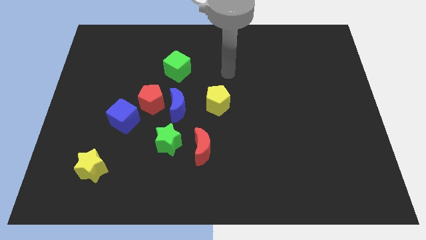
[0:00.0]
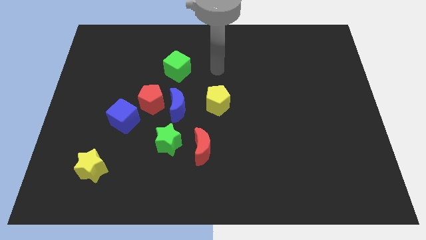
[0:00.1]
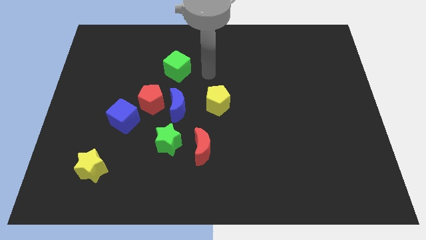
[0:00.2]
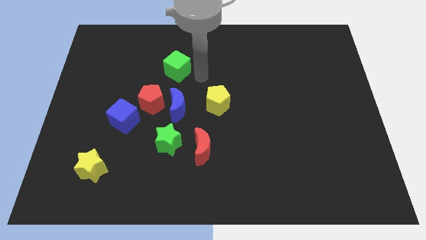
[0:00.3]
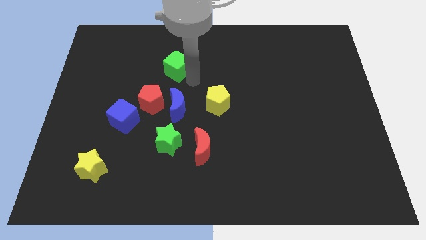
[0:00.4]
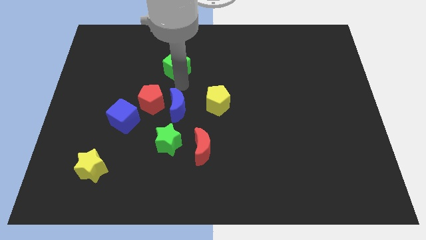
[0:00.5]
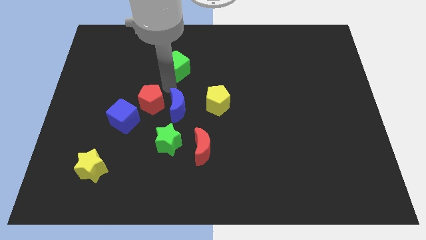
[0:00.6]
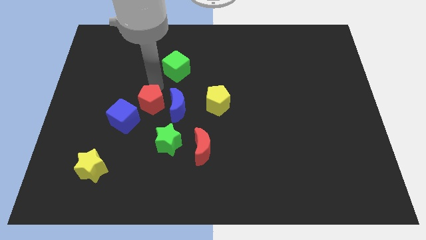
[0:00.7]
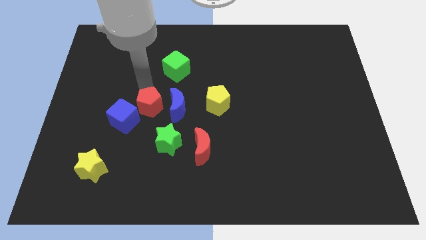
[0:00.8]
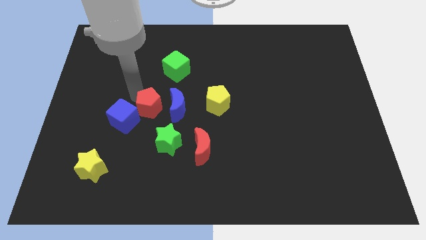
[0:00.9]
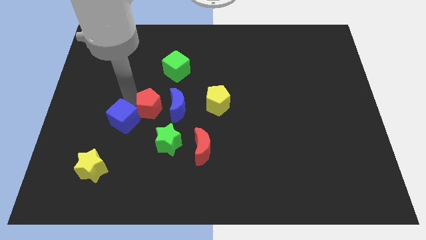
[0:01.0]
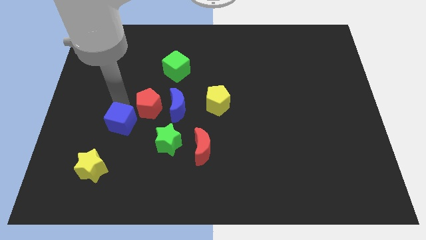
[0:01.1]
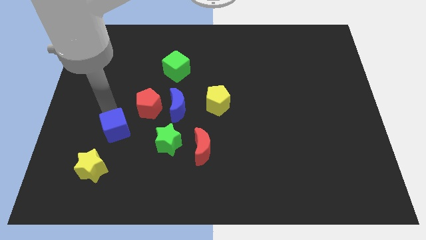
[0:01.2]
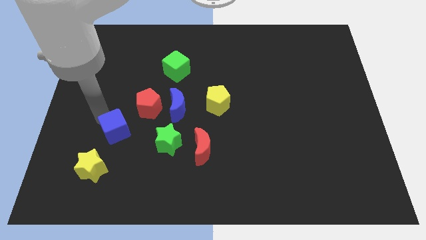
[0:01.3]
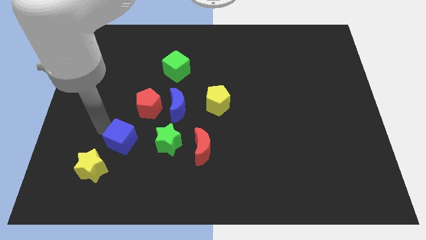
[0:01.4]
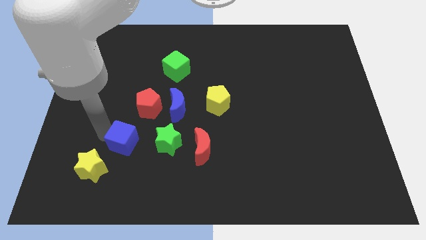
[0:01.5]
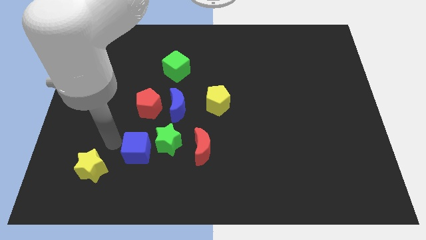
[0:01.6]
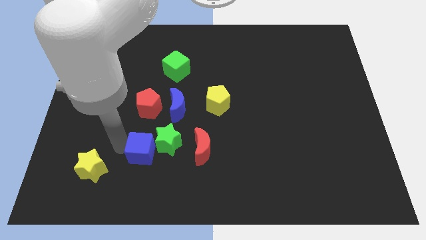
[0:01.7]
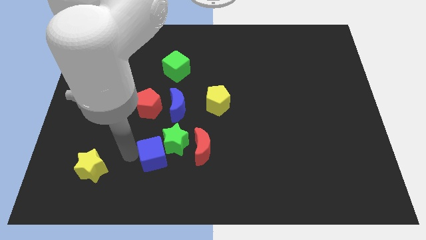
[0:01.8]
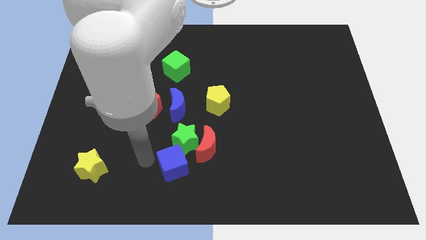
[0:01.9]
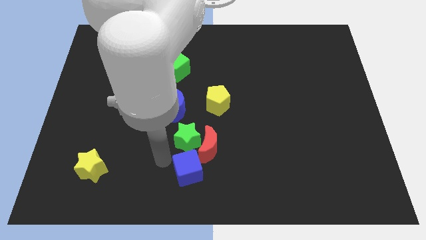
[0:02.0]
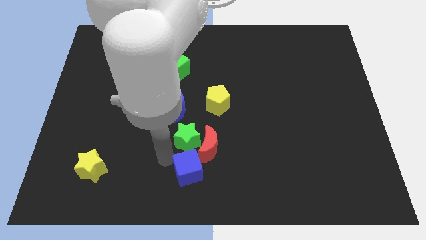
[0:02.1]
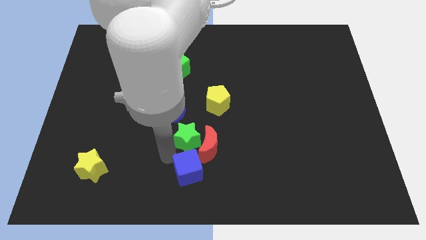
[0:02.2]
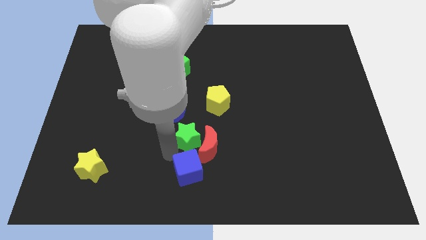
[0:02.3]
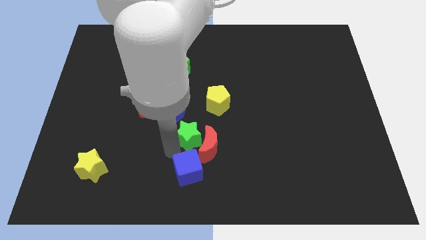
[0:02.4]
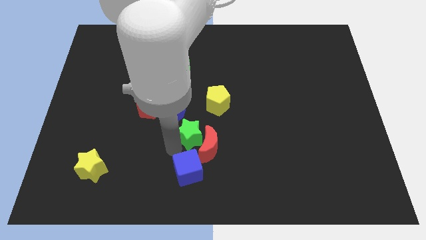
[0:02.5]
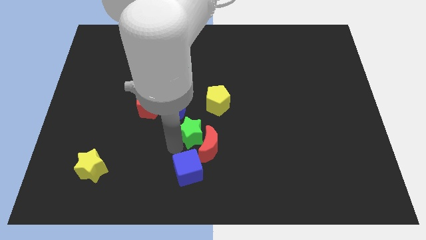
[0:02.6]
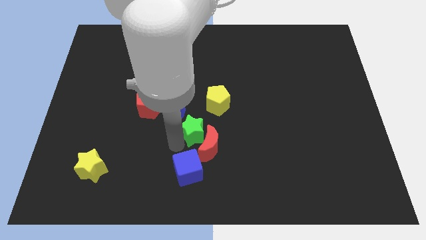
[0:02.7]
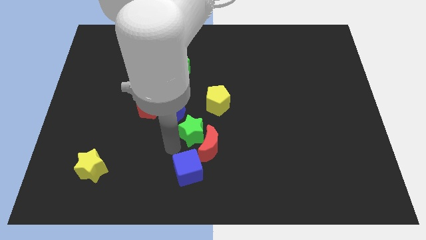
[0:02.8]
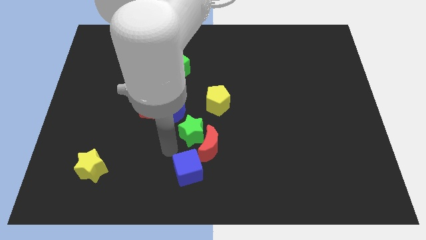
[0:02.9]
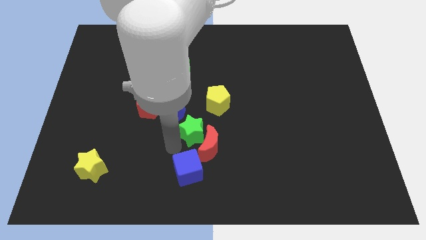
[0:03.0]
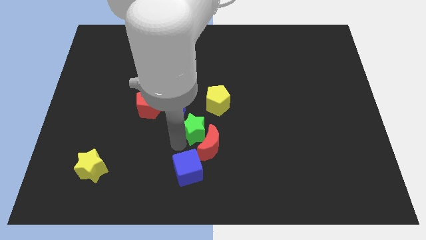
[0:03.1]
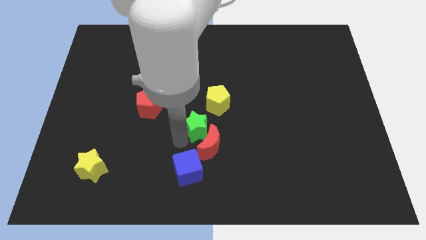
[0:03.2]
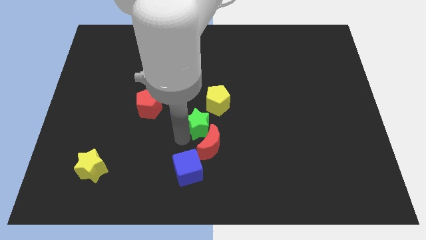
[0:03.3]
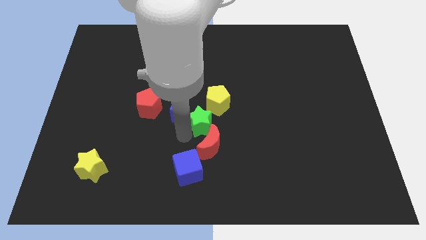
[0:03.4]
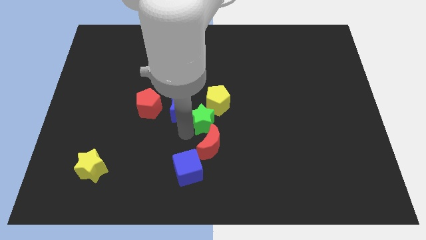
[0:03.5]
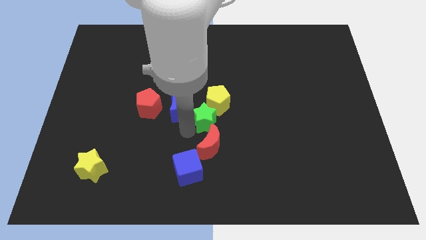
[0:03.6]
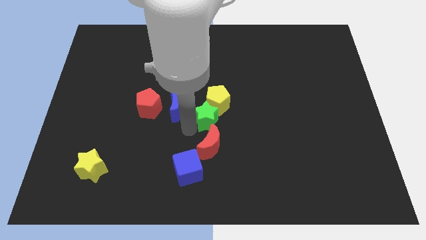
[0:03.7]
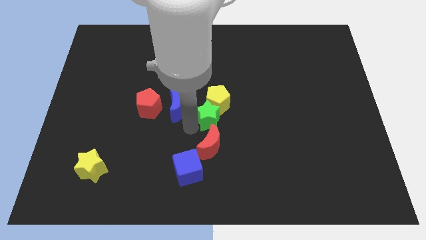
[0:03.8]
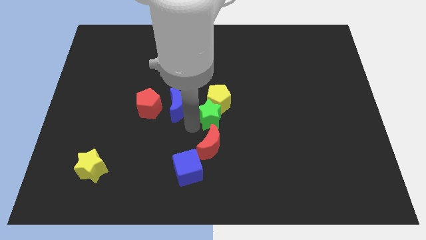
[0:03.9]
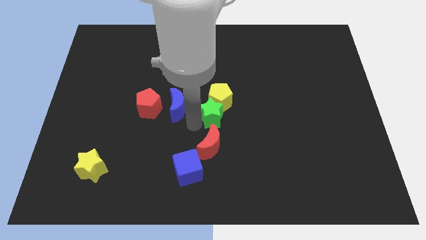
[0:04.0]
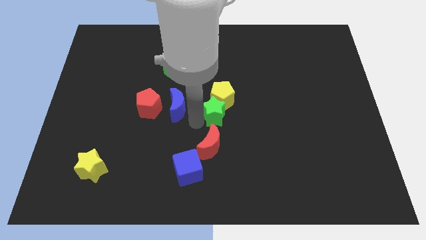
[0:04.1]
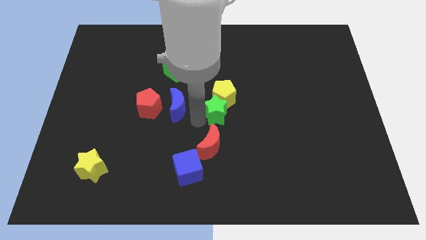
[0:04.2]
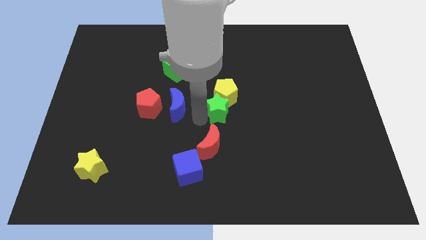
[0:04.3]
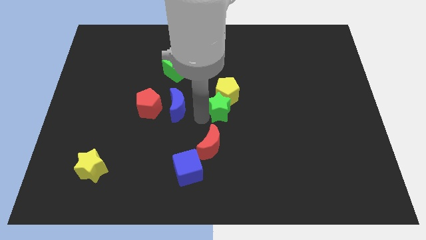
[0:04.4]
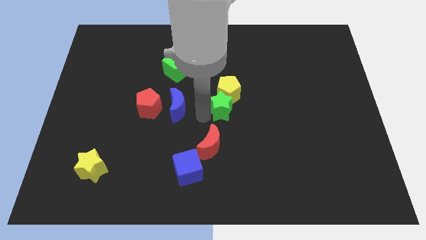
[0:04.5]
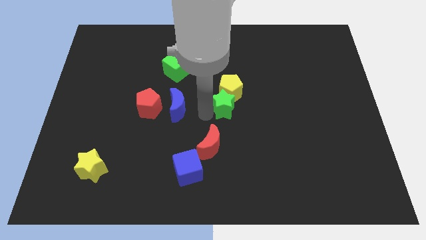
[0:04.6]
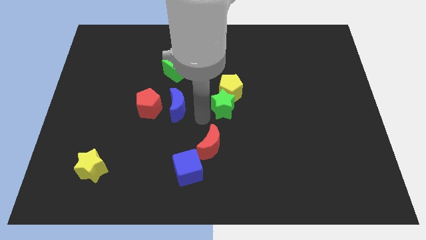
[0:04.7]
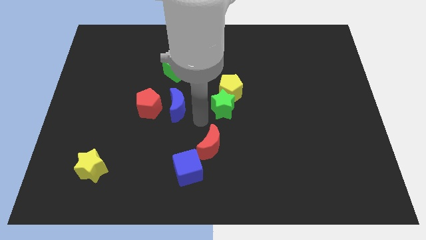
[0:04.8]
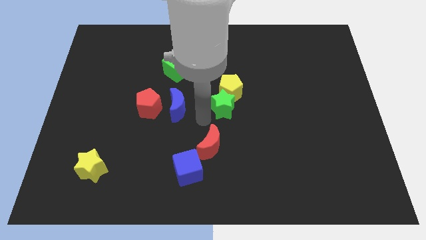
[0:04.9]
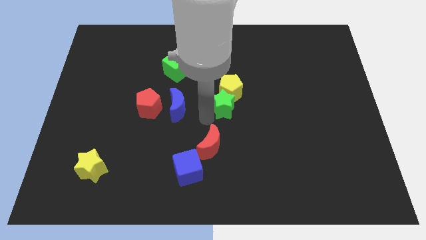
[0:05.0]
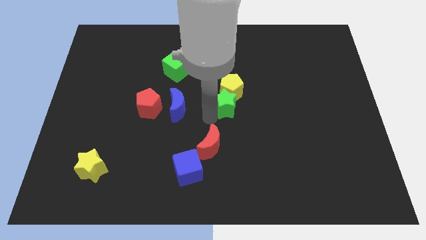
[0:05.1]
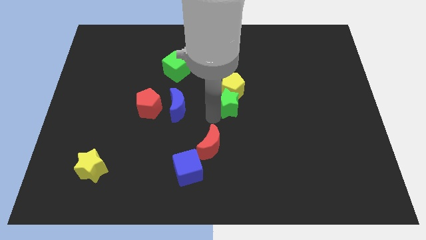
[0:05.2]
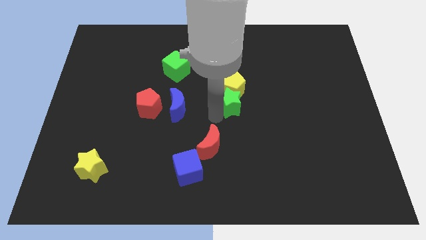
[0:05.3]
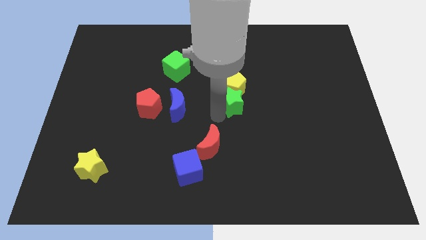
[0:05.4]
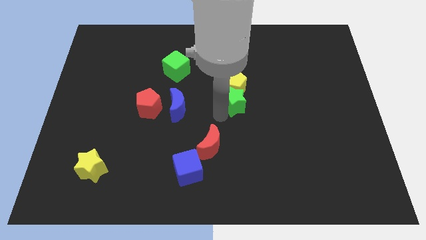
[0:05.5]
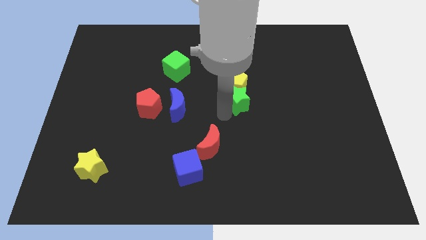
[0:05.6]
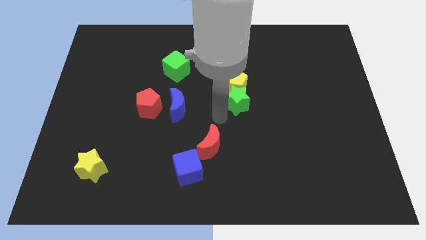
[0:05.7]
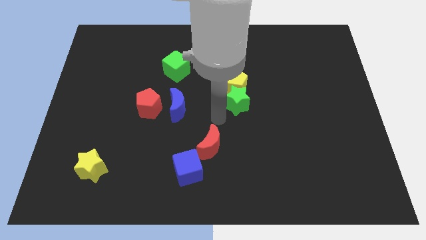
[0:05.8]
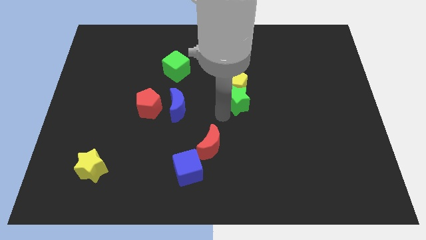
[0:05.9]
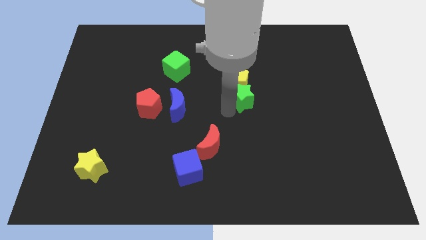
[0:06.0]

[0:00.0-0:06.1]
push the green star up and then right

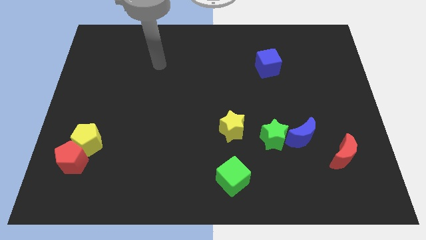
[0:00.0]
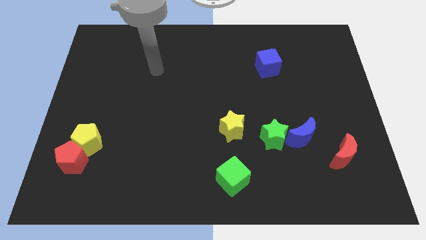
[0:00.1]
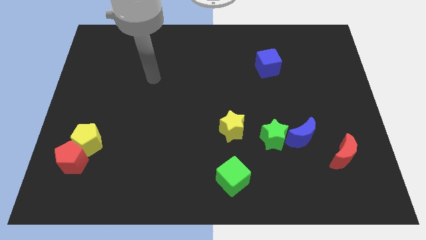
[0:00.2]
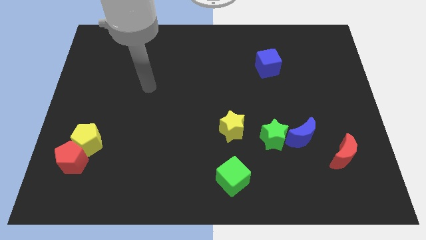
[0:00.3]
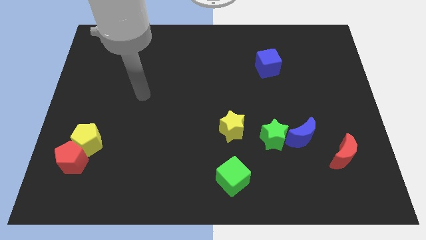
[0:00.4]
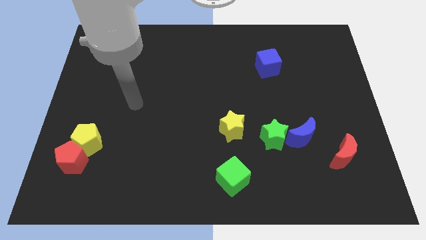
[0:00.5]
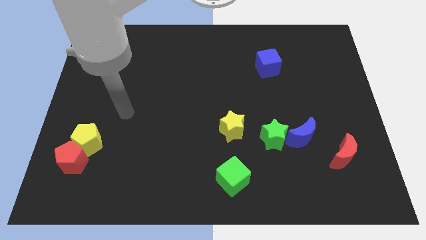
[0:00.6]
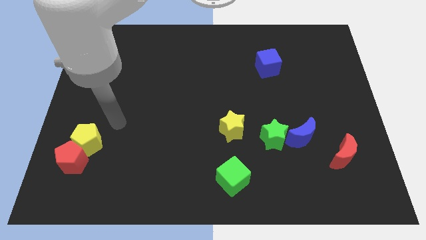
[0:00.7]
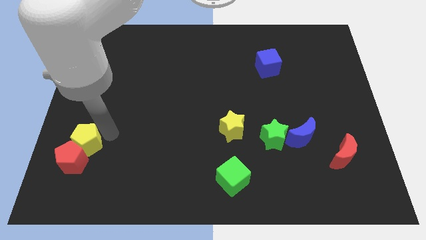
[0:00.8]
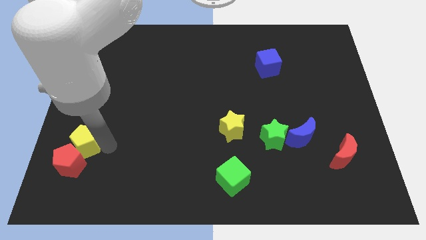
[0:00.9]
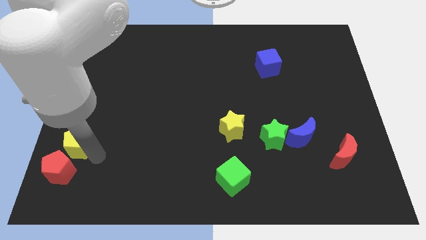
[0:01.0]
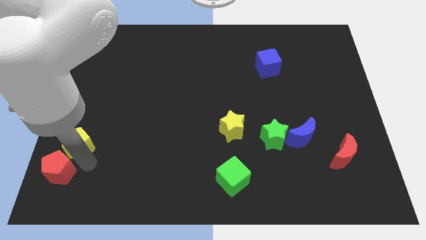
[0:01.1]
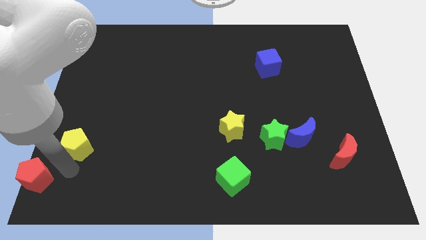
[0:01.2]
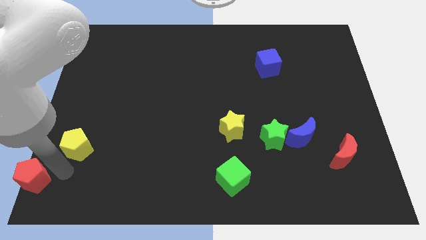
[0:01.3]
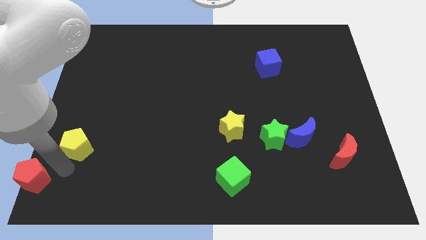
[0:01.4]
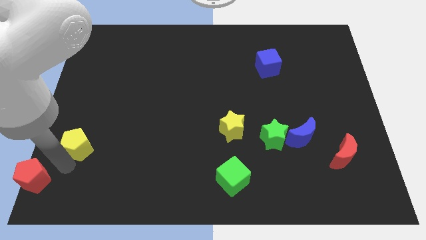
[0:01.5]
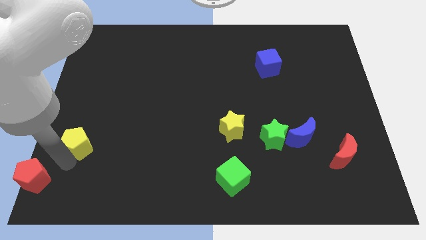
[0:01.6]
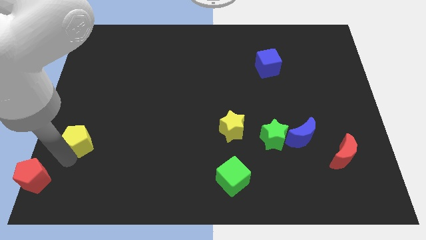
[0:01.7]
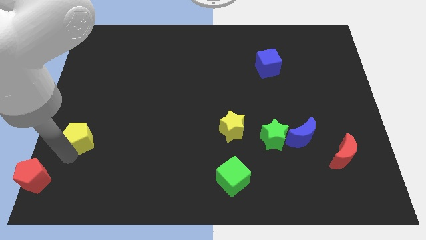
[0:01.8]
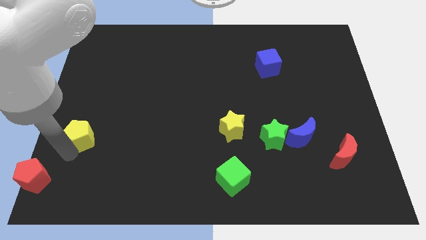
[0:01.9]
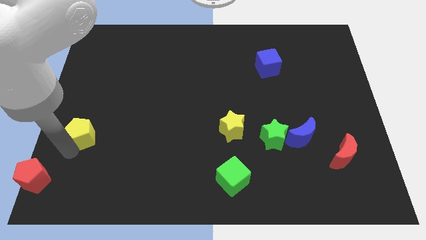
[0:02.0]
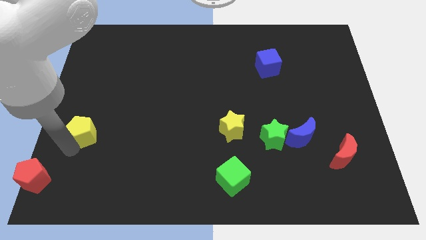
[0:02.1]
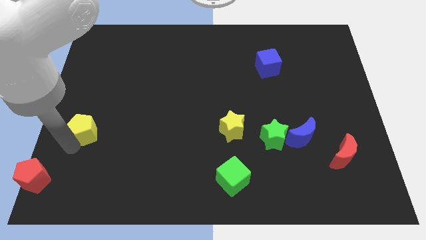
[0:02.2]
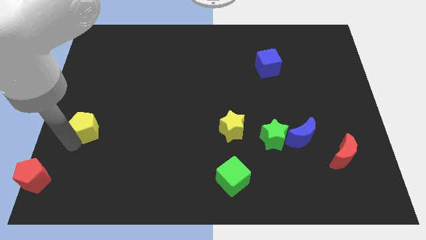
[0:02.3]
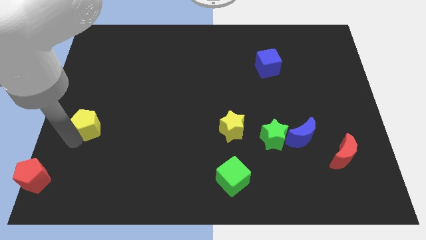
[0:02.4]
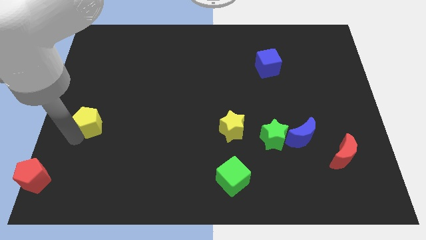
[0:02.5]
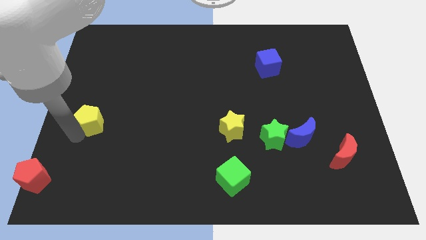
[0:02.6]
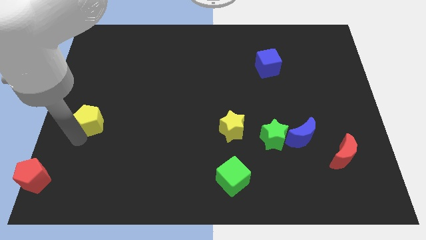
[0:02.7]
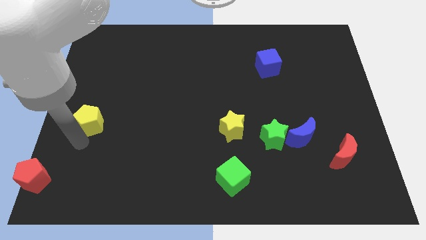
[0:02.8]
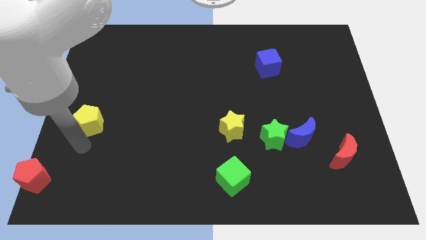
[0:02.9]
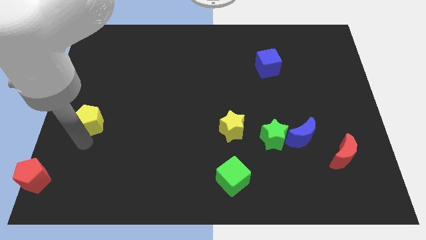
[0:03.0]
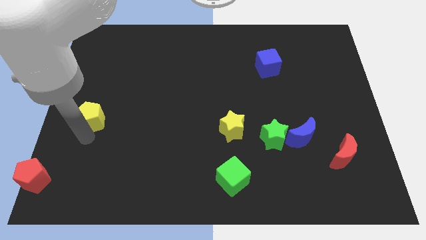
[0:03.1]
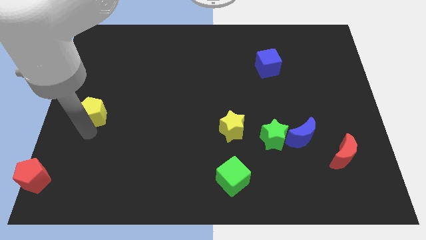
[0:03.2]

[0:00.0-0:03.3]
slightly push the yellow pentagon upwards
